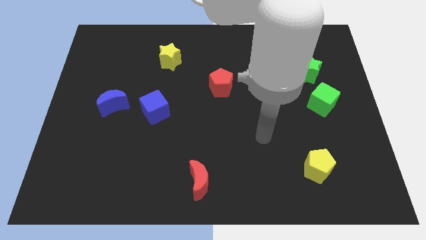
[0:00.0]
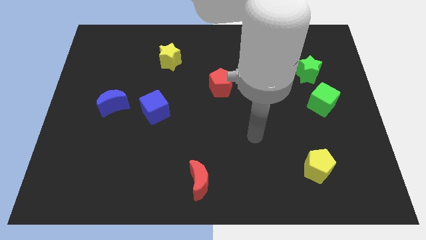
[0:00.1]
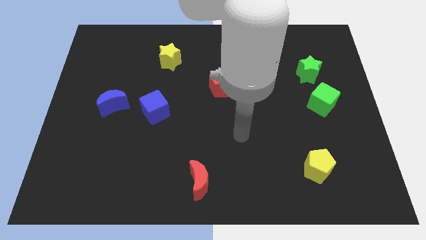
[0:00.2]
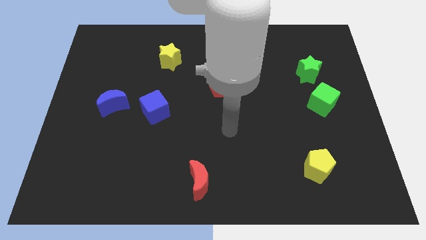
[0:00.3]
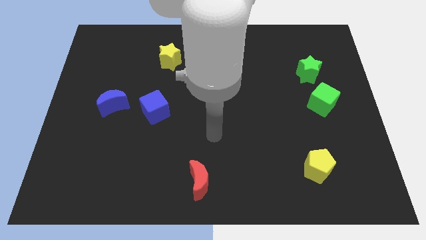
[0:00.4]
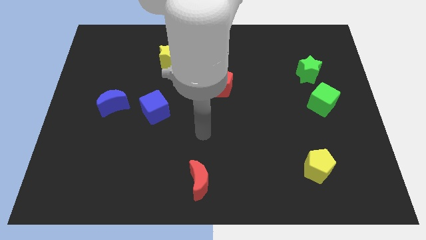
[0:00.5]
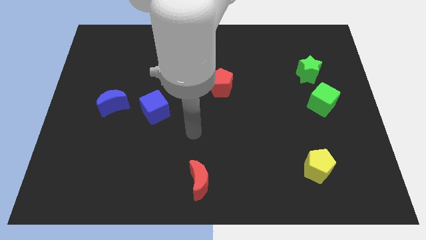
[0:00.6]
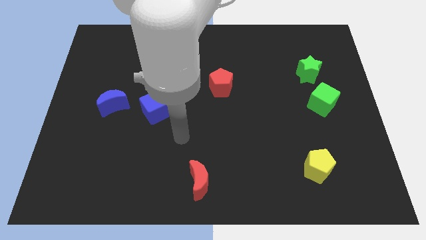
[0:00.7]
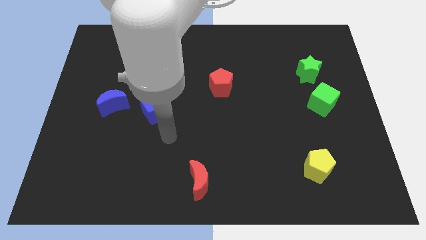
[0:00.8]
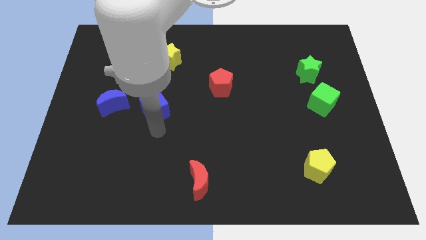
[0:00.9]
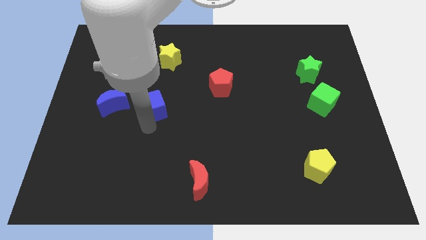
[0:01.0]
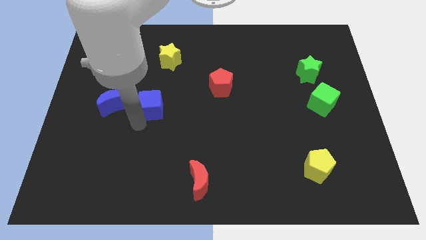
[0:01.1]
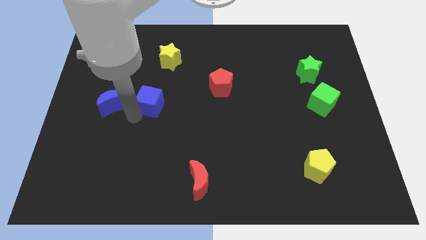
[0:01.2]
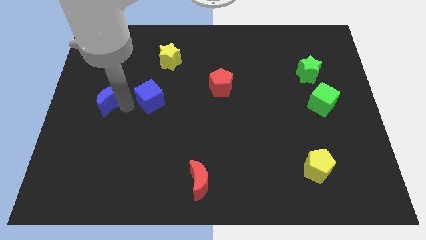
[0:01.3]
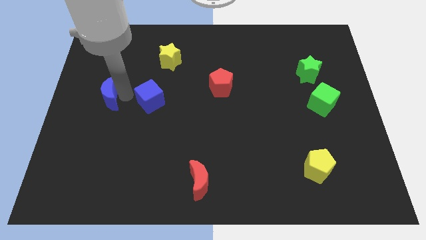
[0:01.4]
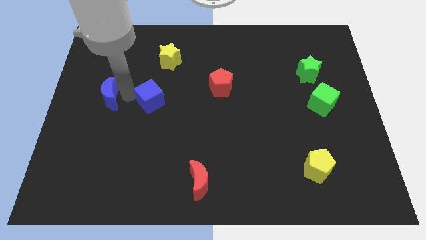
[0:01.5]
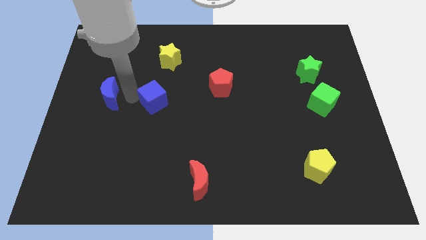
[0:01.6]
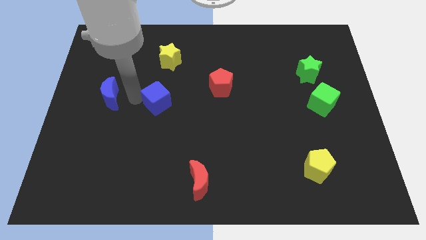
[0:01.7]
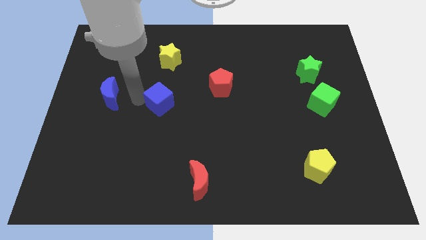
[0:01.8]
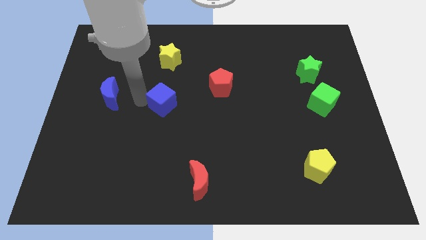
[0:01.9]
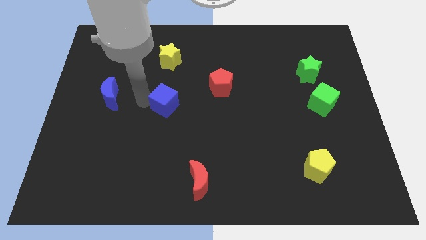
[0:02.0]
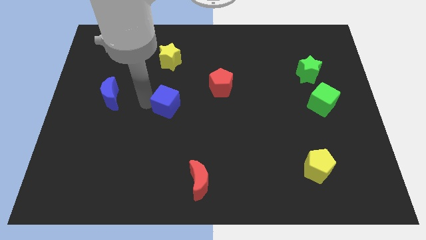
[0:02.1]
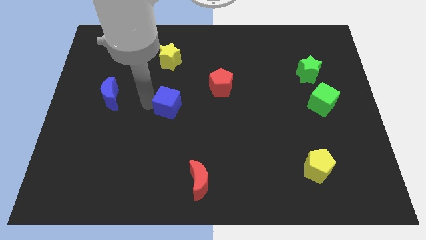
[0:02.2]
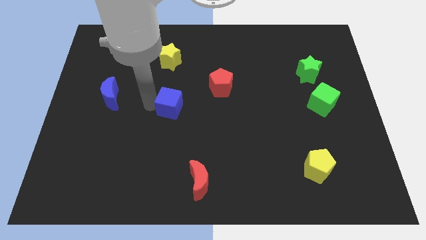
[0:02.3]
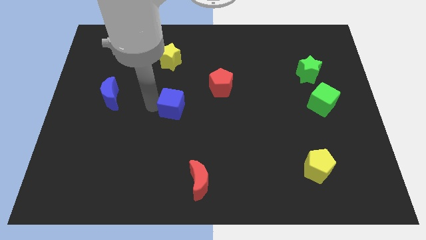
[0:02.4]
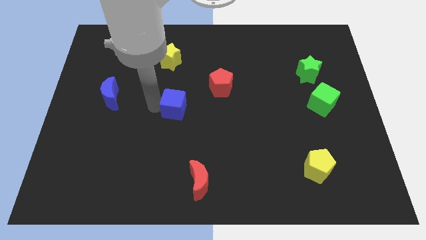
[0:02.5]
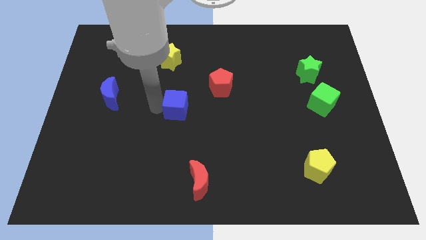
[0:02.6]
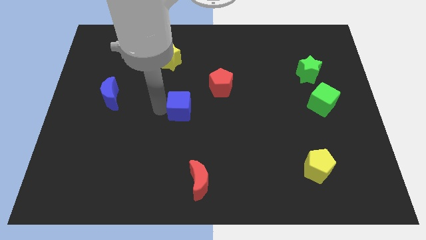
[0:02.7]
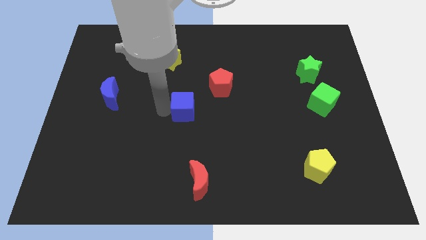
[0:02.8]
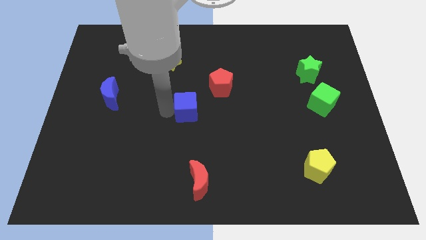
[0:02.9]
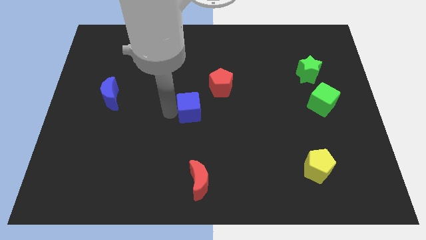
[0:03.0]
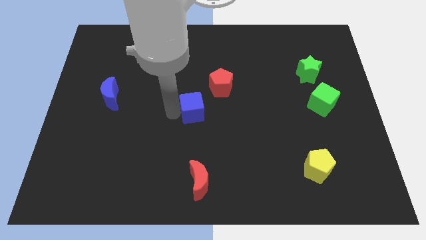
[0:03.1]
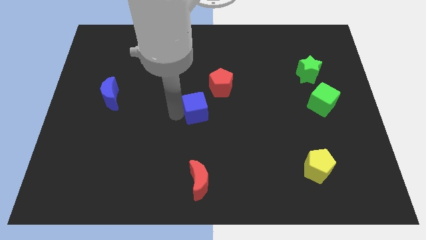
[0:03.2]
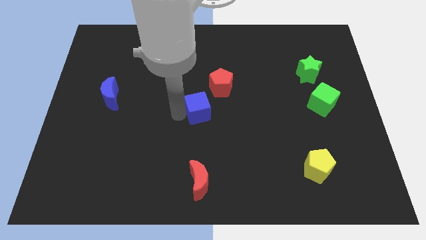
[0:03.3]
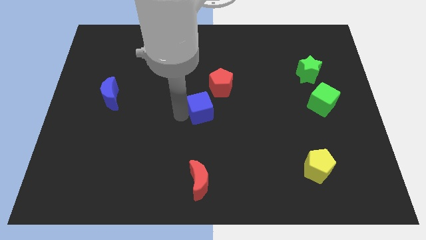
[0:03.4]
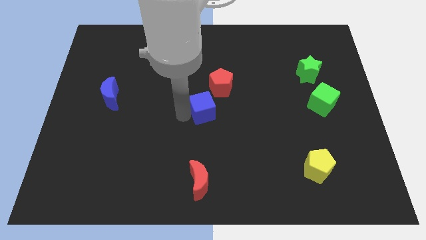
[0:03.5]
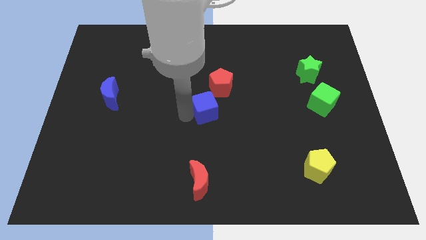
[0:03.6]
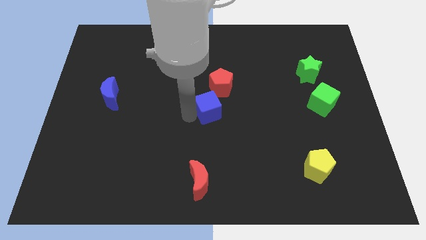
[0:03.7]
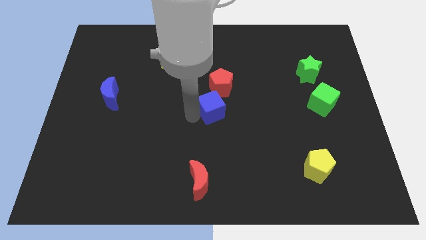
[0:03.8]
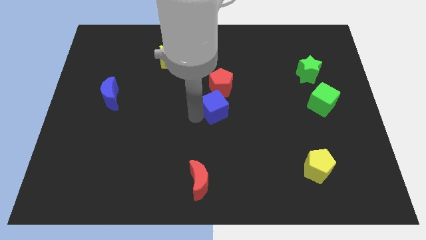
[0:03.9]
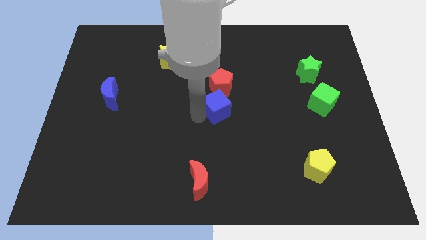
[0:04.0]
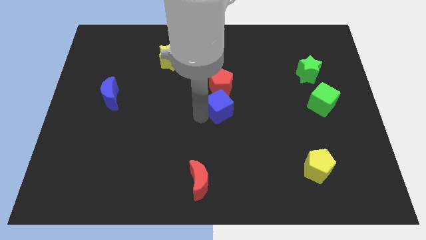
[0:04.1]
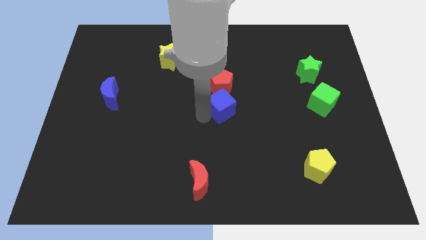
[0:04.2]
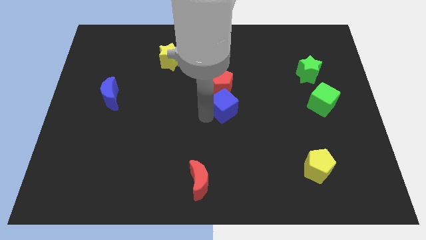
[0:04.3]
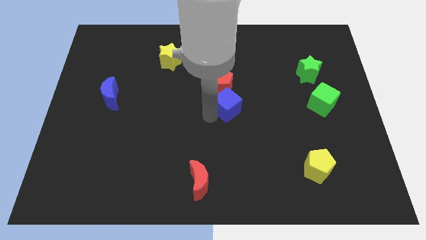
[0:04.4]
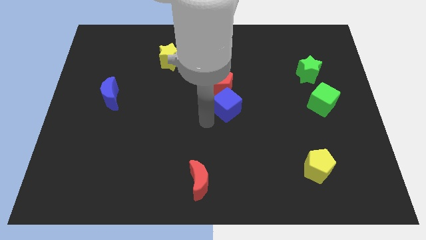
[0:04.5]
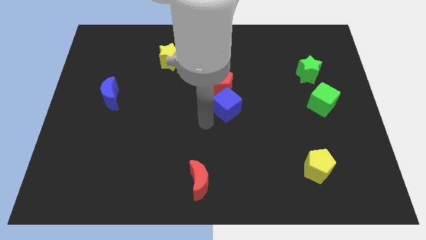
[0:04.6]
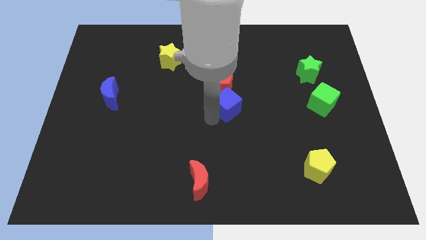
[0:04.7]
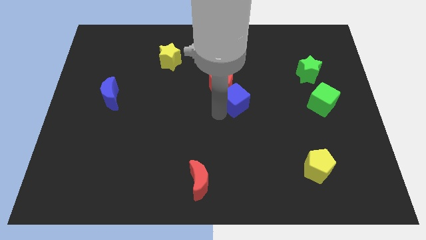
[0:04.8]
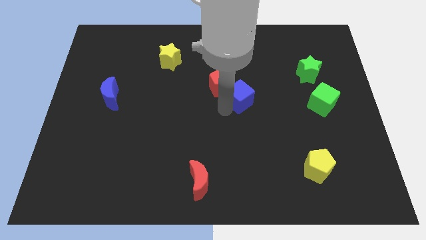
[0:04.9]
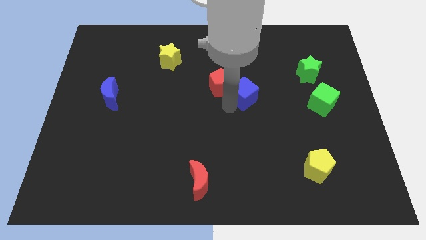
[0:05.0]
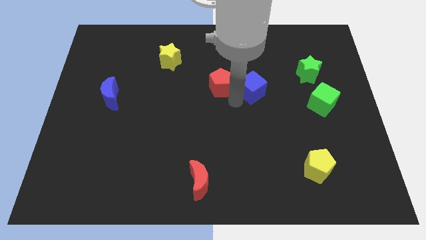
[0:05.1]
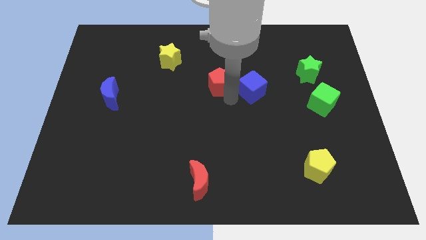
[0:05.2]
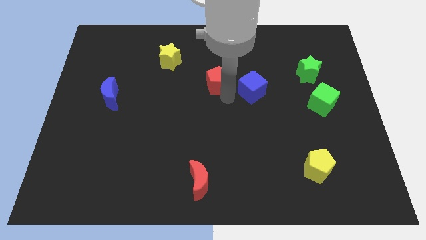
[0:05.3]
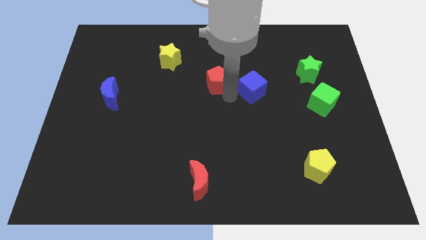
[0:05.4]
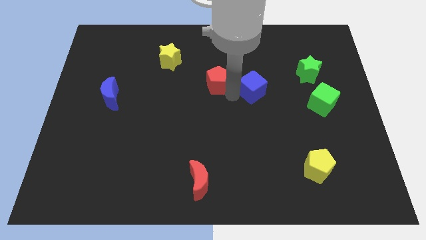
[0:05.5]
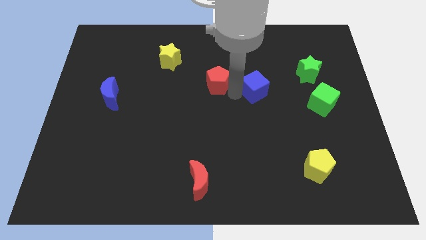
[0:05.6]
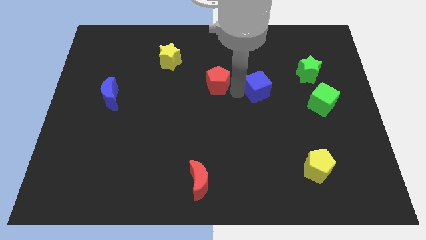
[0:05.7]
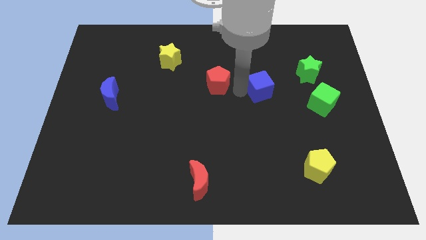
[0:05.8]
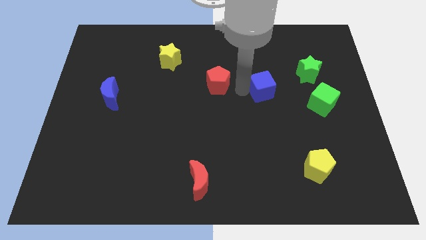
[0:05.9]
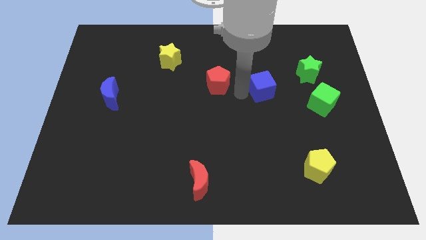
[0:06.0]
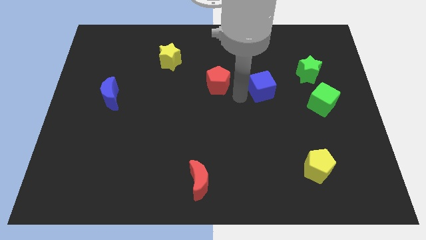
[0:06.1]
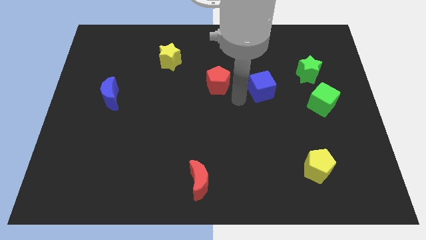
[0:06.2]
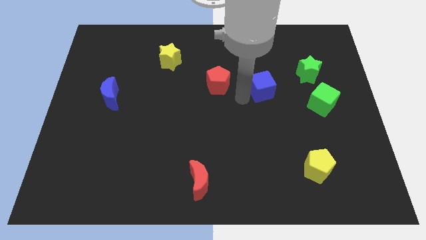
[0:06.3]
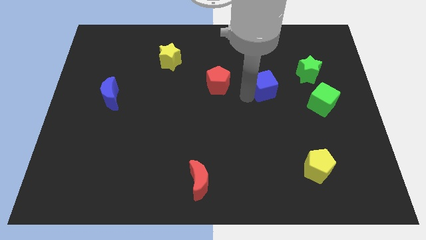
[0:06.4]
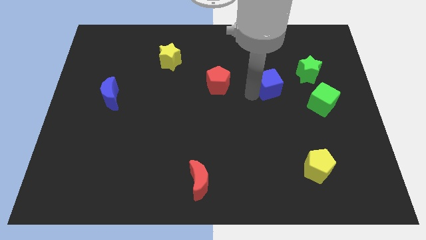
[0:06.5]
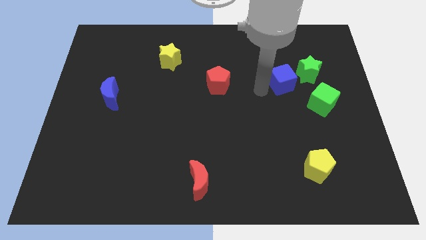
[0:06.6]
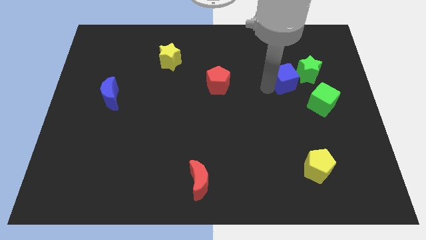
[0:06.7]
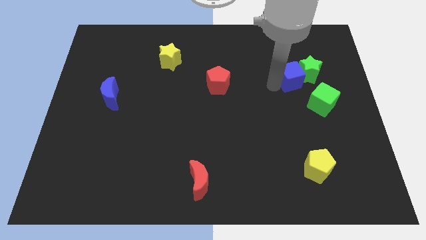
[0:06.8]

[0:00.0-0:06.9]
move the blue cube towards the green star
